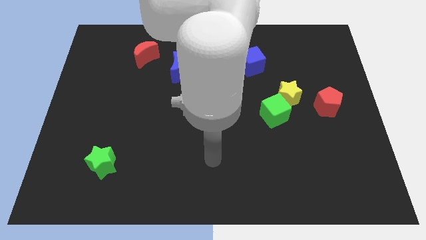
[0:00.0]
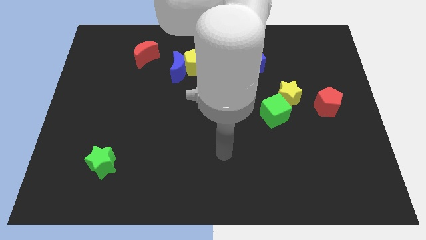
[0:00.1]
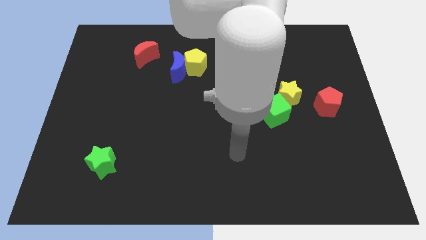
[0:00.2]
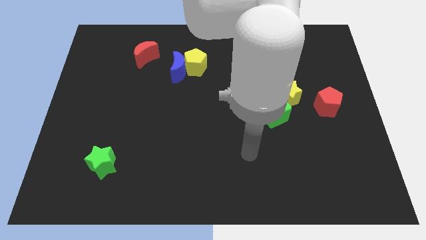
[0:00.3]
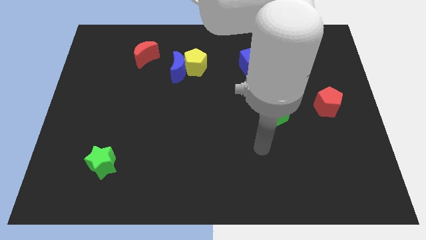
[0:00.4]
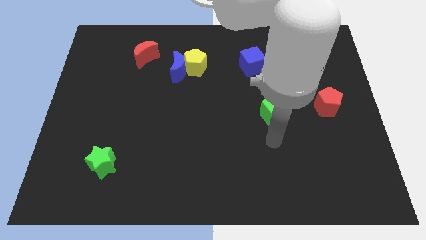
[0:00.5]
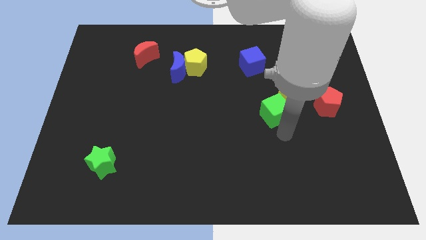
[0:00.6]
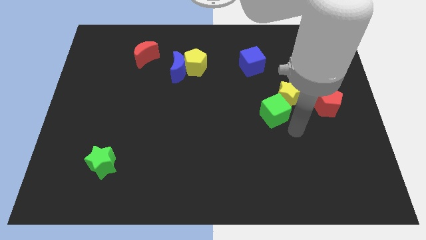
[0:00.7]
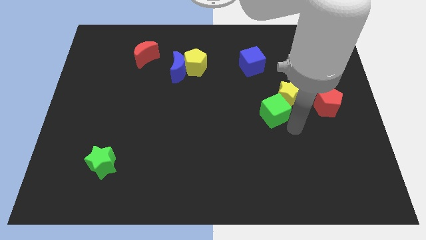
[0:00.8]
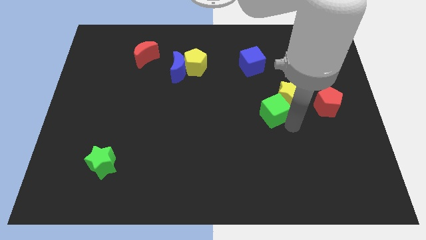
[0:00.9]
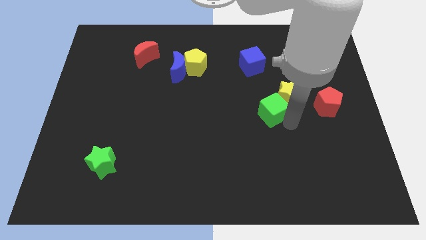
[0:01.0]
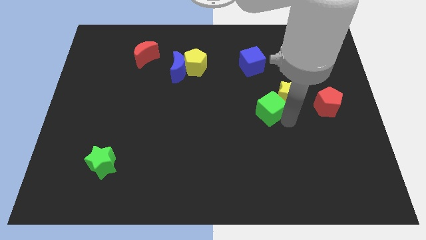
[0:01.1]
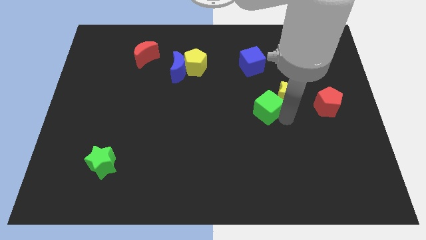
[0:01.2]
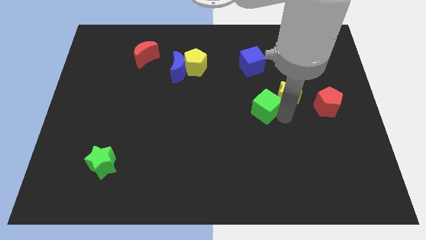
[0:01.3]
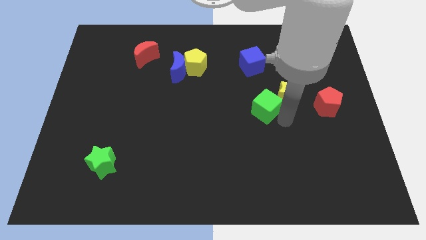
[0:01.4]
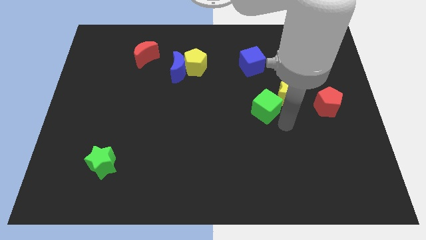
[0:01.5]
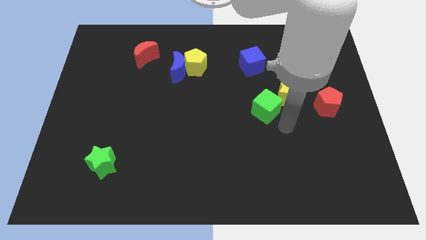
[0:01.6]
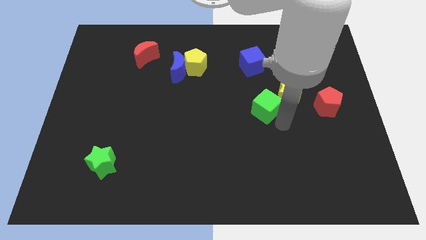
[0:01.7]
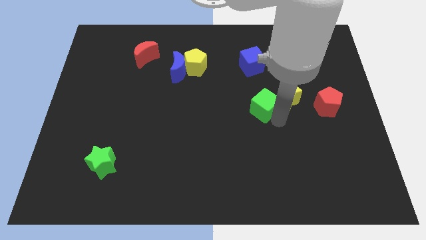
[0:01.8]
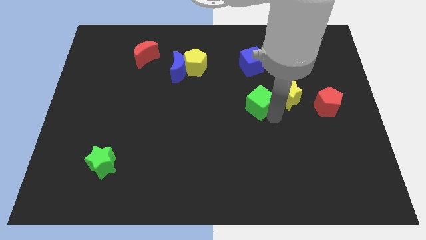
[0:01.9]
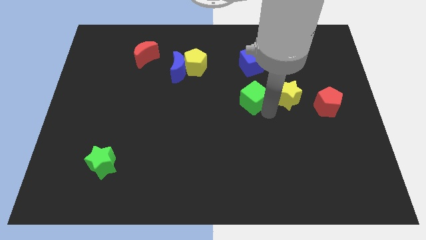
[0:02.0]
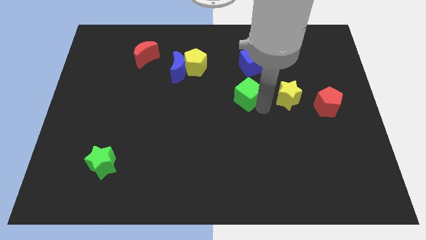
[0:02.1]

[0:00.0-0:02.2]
move the green cube a little diagonally up and to the left

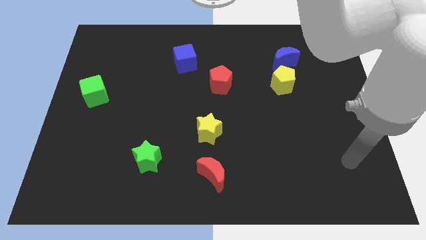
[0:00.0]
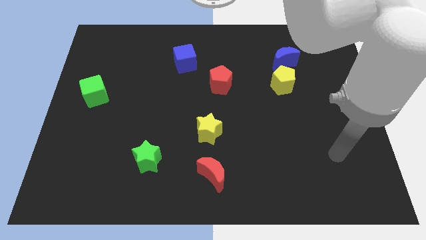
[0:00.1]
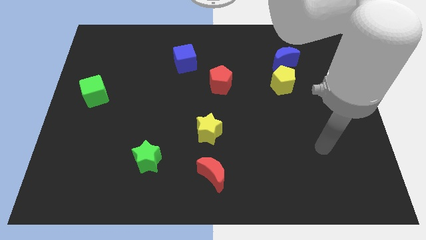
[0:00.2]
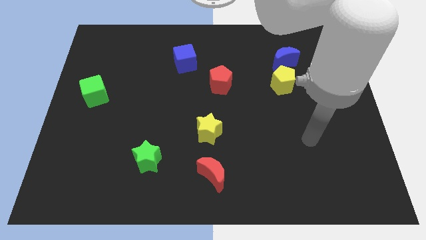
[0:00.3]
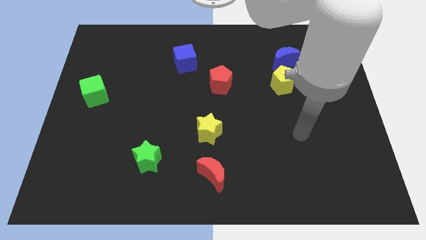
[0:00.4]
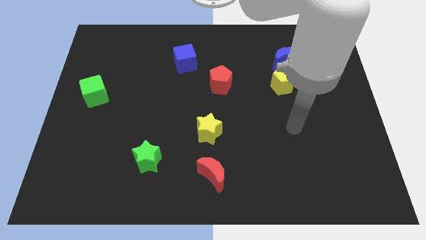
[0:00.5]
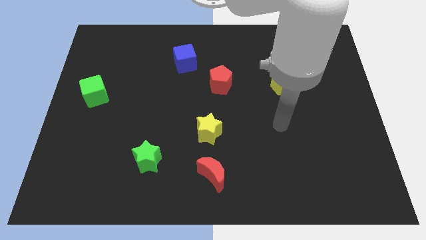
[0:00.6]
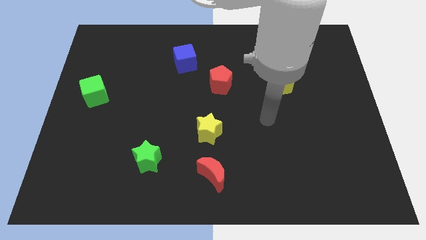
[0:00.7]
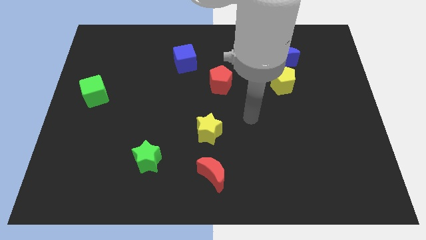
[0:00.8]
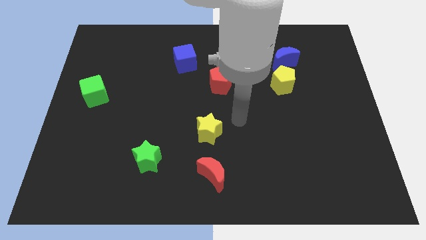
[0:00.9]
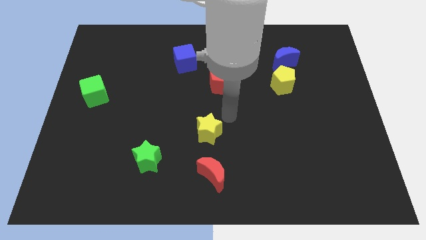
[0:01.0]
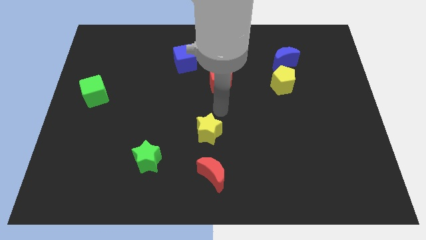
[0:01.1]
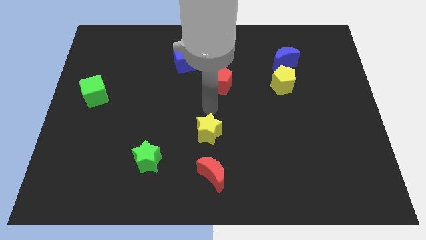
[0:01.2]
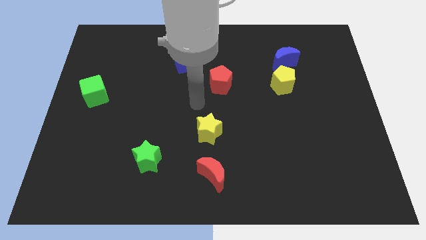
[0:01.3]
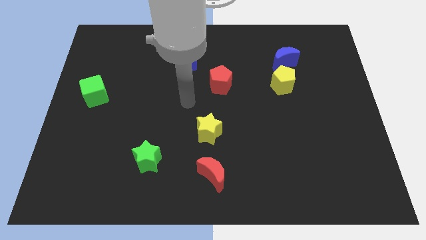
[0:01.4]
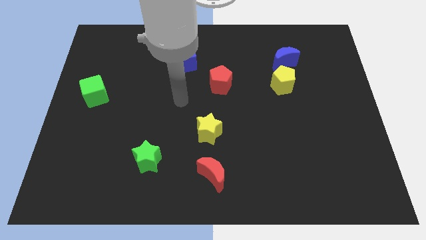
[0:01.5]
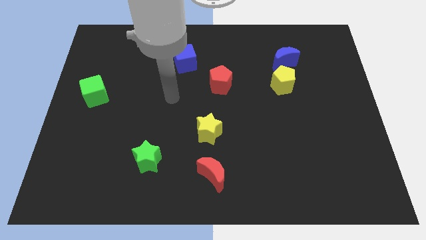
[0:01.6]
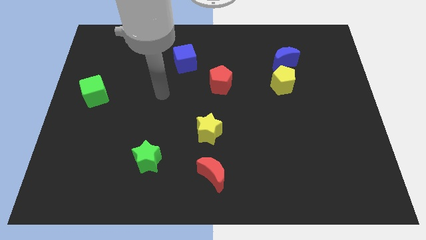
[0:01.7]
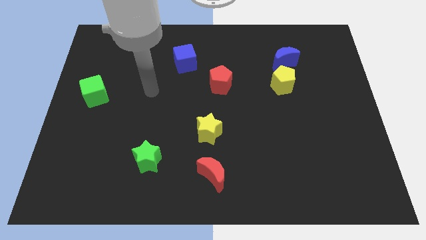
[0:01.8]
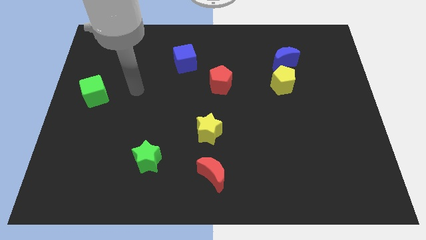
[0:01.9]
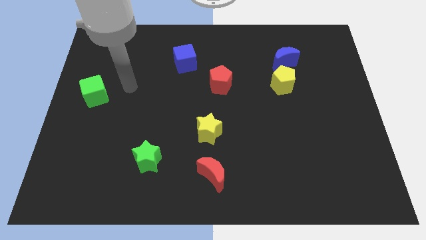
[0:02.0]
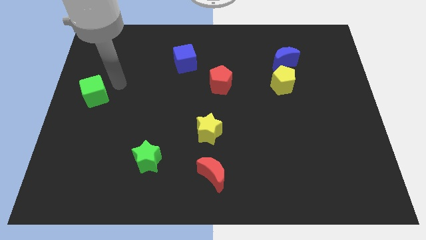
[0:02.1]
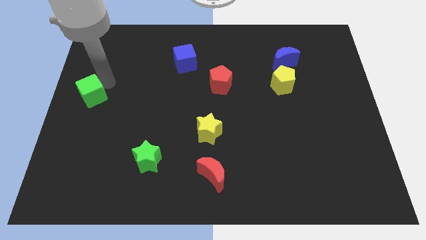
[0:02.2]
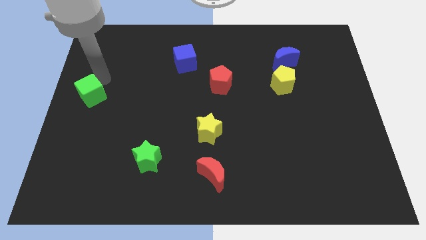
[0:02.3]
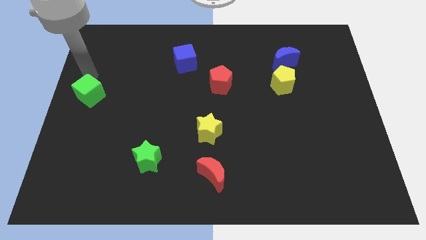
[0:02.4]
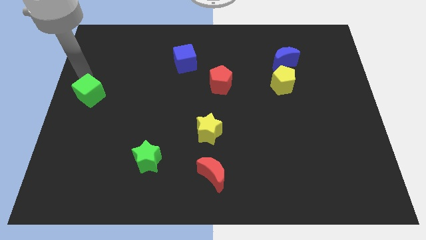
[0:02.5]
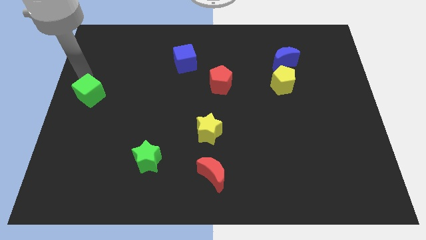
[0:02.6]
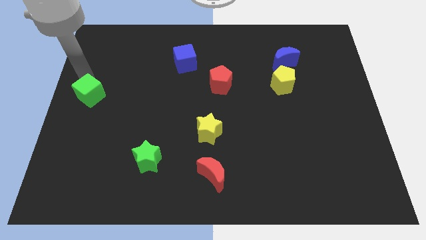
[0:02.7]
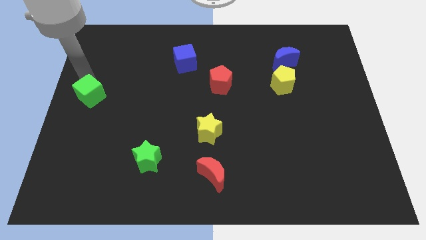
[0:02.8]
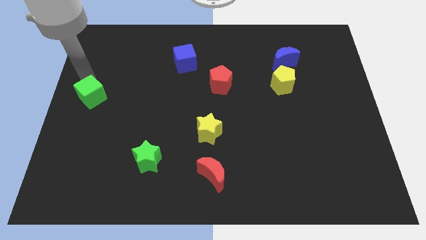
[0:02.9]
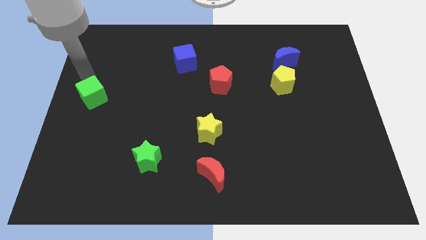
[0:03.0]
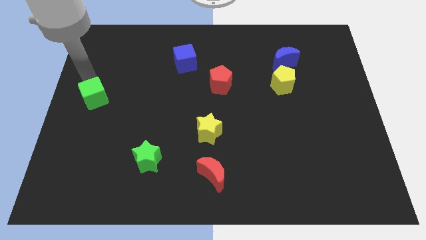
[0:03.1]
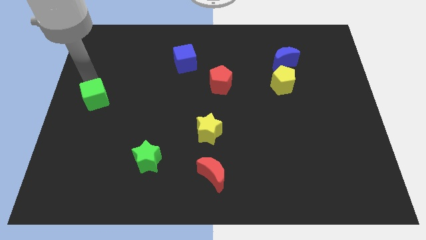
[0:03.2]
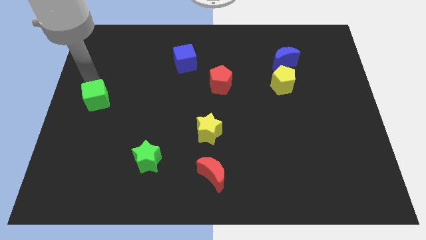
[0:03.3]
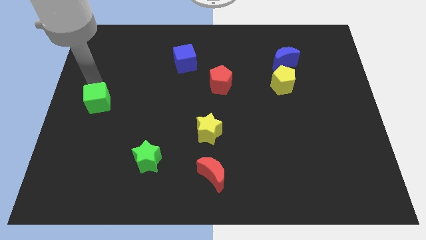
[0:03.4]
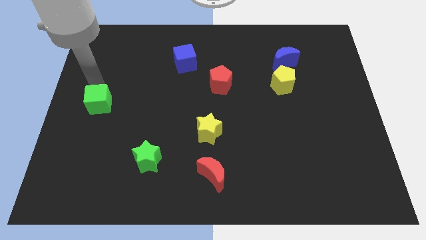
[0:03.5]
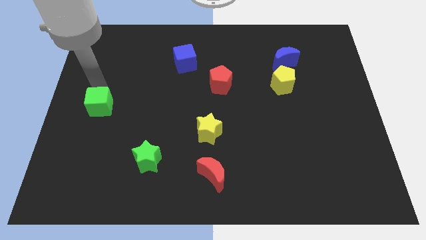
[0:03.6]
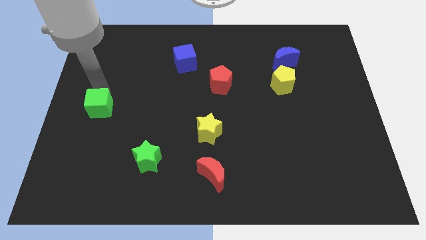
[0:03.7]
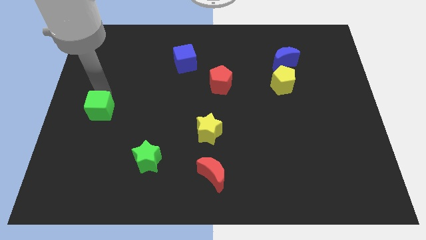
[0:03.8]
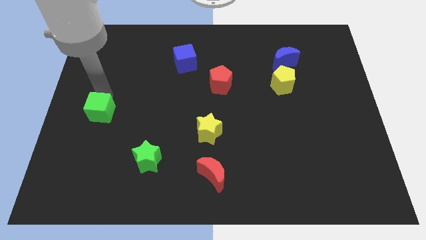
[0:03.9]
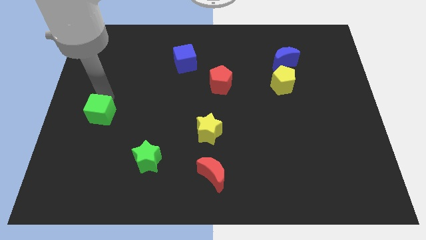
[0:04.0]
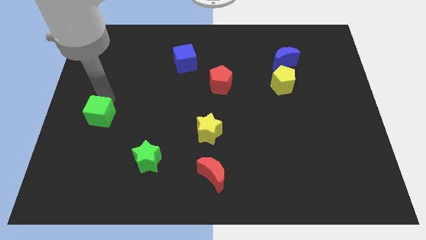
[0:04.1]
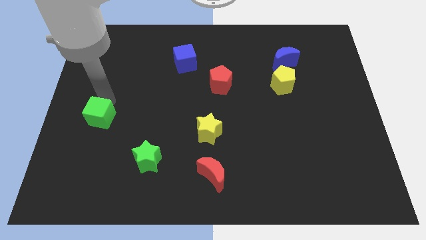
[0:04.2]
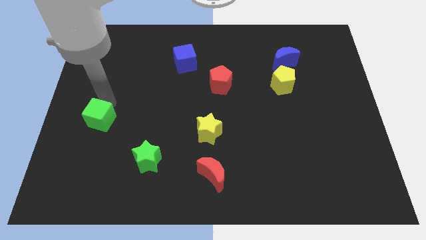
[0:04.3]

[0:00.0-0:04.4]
move the green cube downwards somewhat

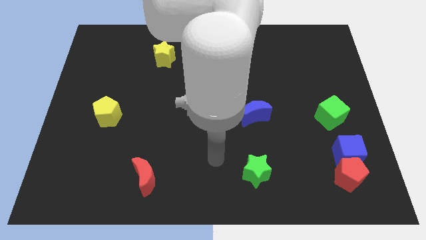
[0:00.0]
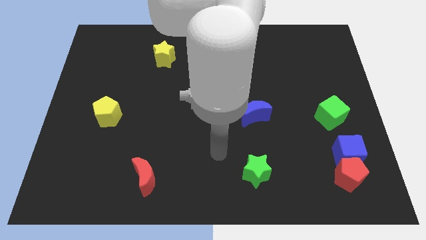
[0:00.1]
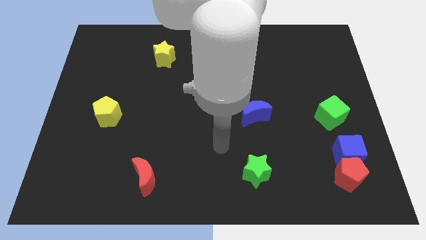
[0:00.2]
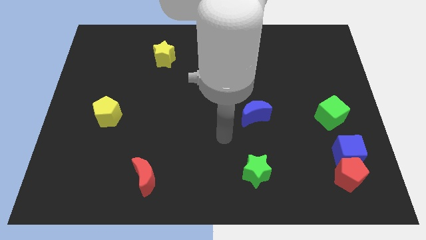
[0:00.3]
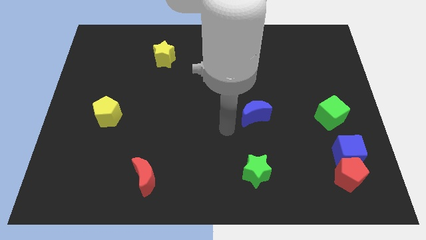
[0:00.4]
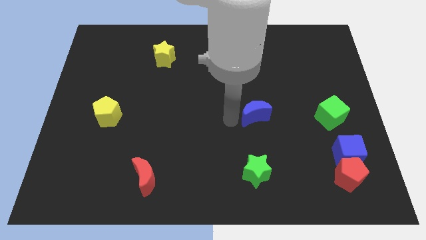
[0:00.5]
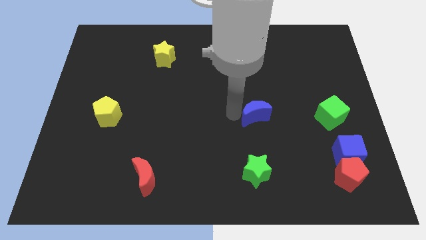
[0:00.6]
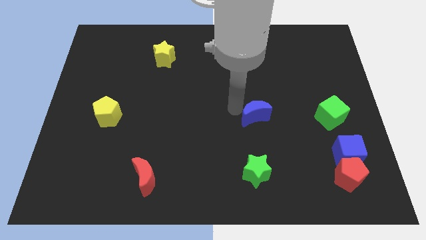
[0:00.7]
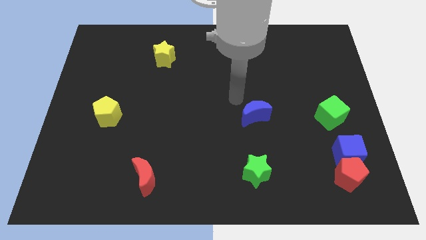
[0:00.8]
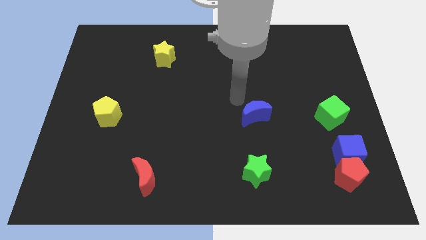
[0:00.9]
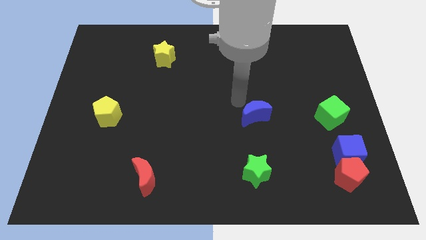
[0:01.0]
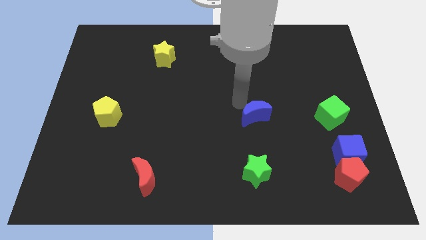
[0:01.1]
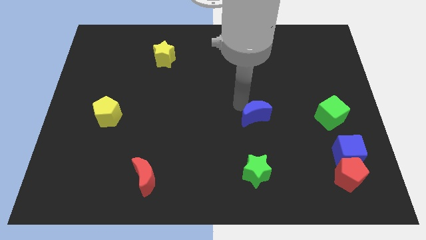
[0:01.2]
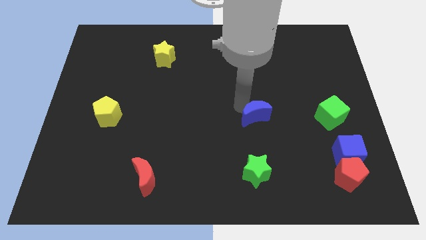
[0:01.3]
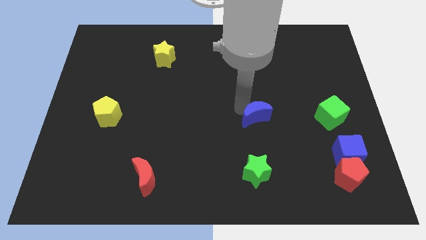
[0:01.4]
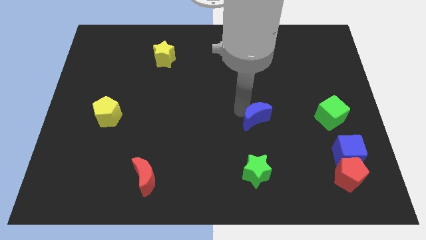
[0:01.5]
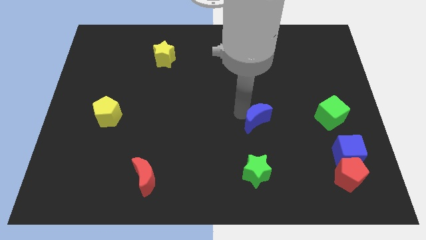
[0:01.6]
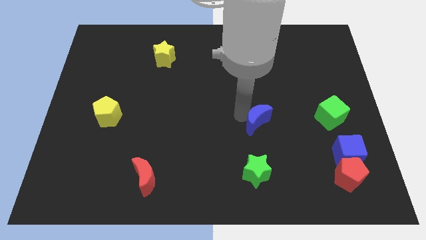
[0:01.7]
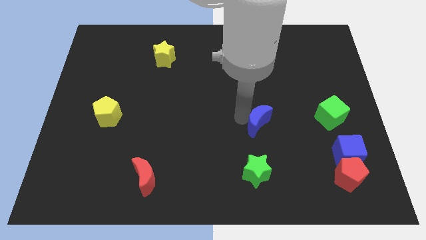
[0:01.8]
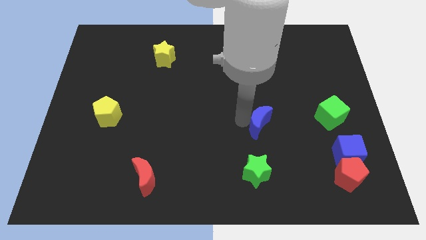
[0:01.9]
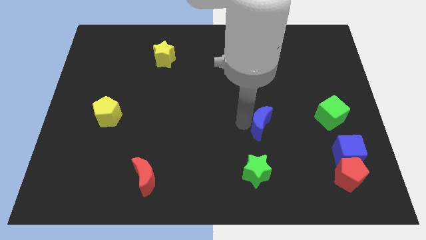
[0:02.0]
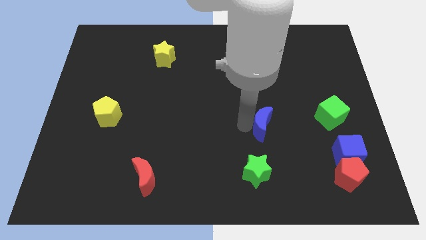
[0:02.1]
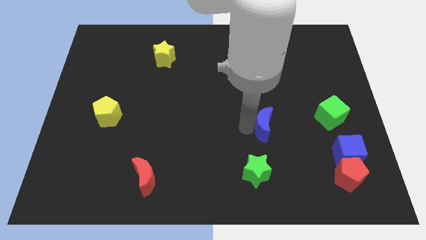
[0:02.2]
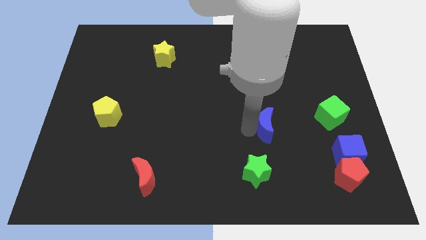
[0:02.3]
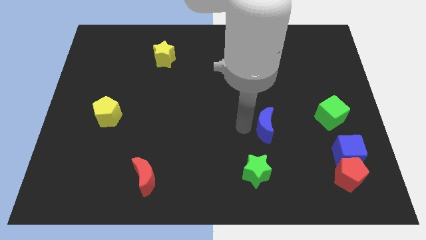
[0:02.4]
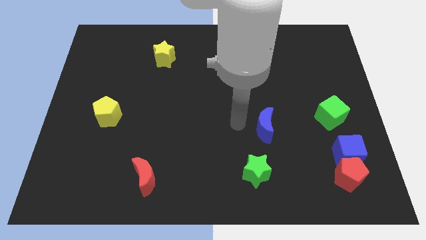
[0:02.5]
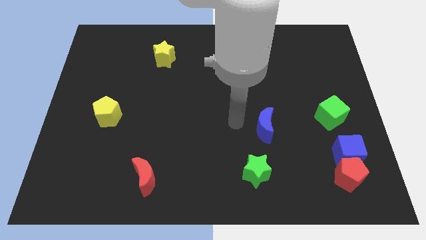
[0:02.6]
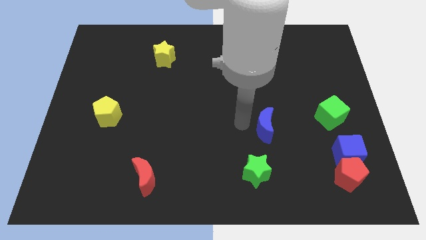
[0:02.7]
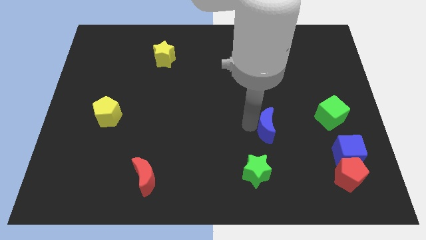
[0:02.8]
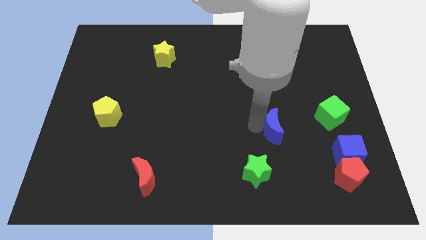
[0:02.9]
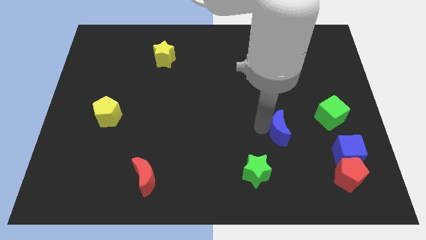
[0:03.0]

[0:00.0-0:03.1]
push the blue moon a little bit down and right diagonally
